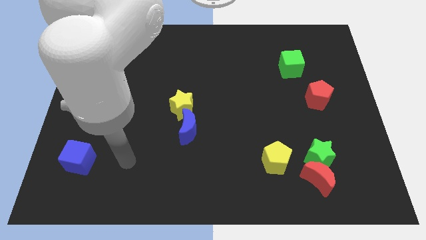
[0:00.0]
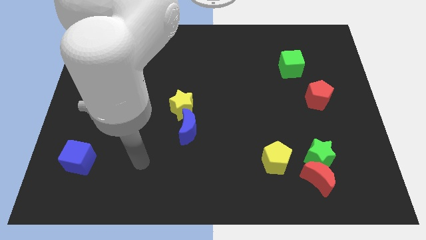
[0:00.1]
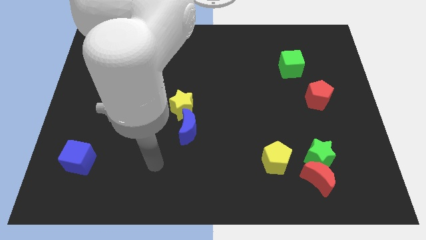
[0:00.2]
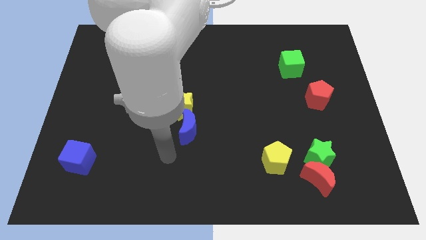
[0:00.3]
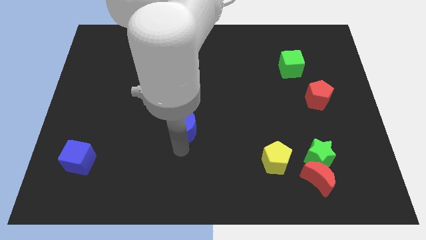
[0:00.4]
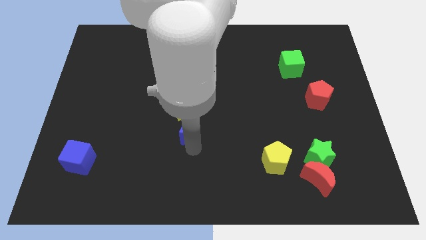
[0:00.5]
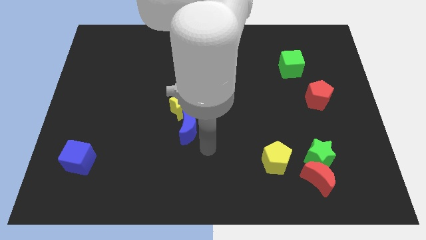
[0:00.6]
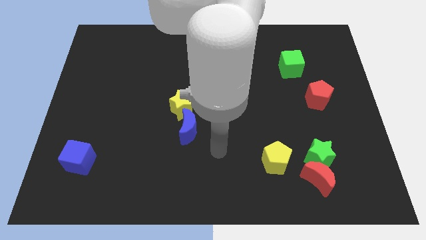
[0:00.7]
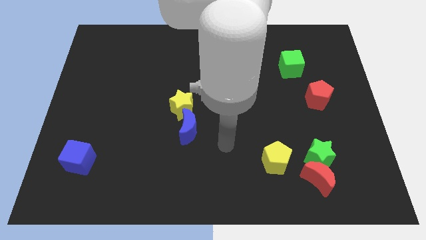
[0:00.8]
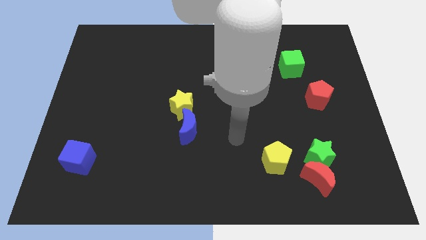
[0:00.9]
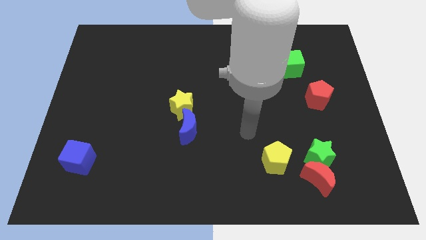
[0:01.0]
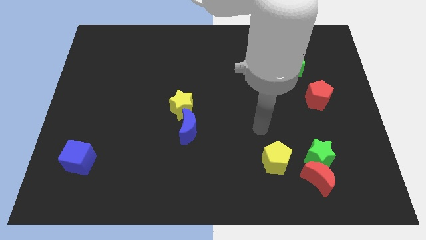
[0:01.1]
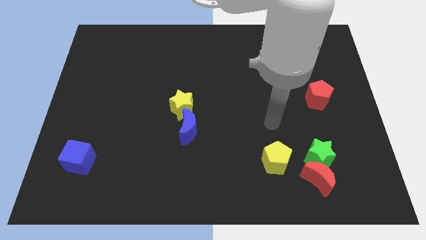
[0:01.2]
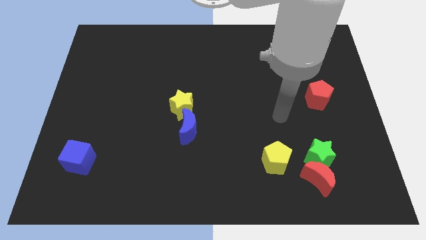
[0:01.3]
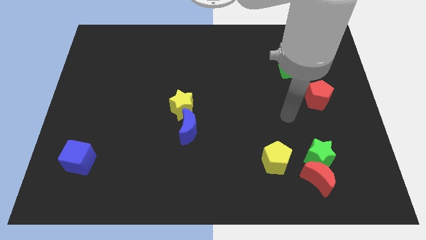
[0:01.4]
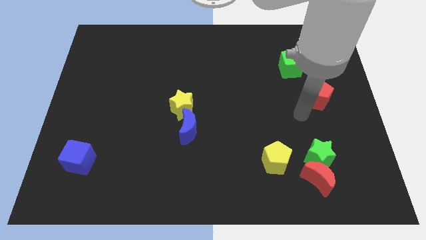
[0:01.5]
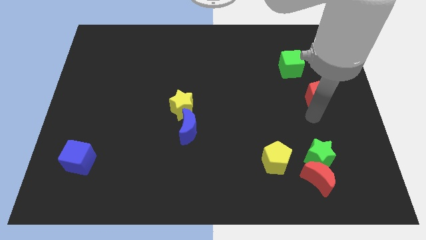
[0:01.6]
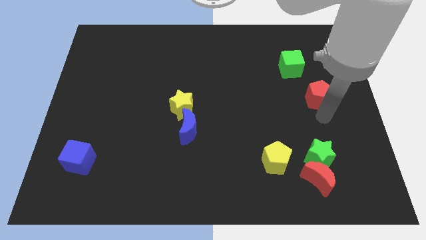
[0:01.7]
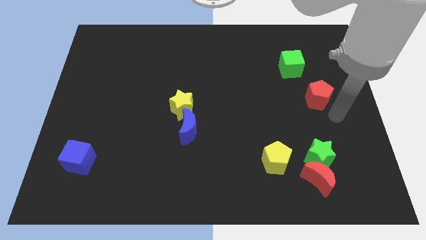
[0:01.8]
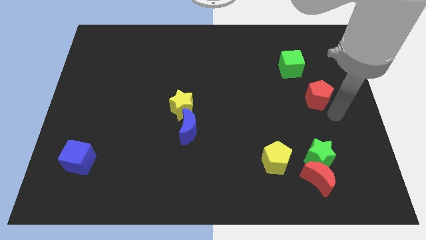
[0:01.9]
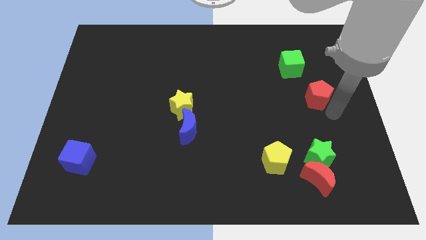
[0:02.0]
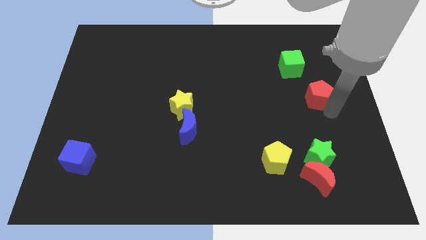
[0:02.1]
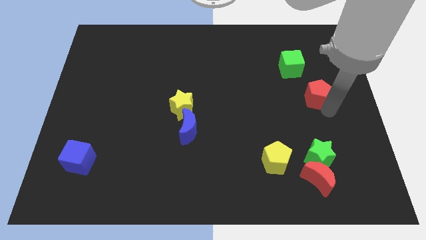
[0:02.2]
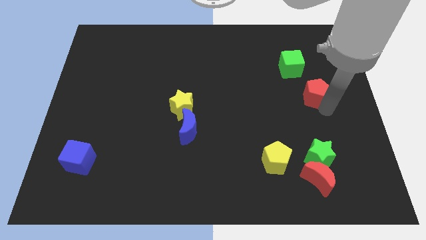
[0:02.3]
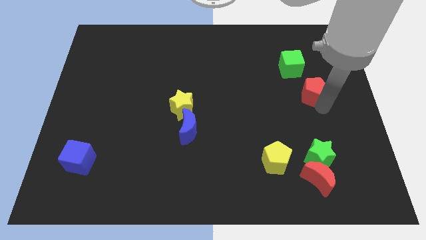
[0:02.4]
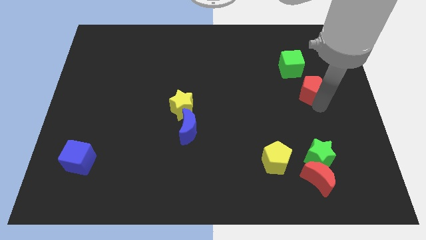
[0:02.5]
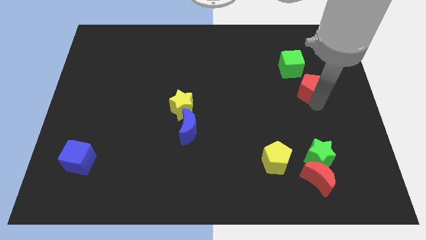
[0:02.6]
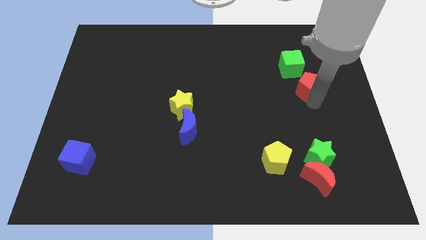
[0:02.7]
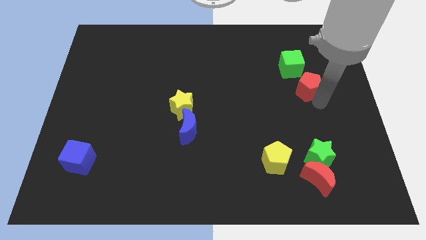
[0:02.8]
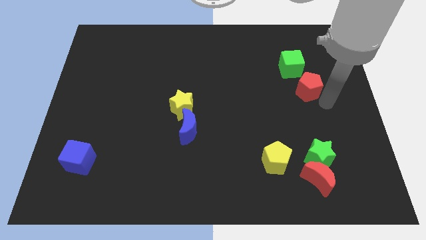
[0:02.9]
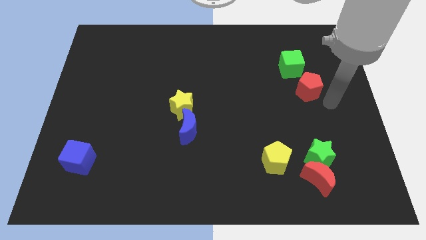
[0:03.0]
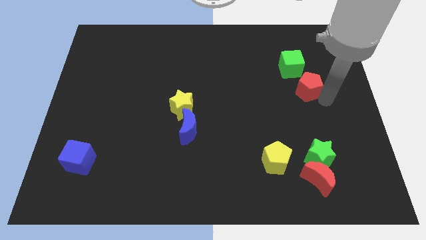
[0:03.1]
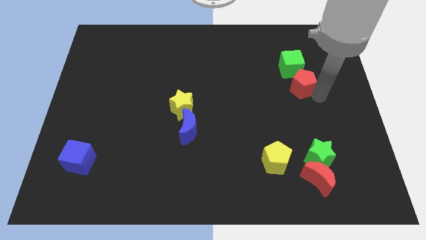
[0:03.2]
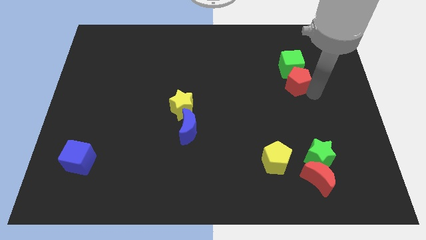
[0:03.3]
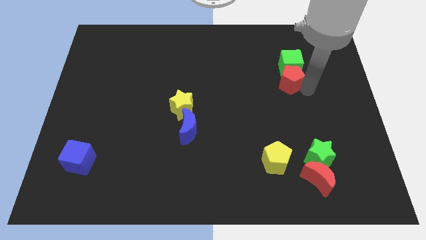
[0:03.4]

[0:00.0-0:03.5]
slide the red pentagon a little diagonally upwards and to the left

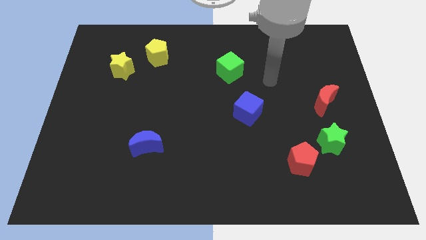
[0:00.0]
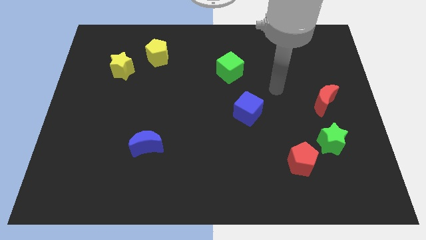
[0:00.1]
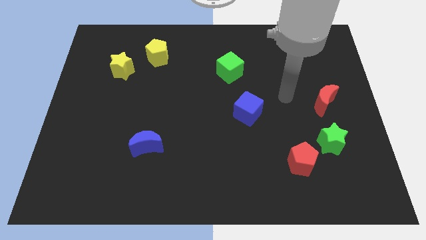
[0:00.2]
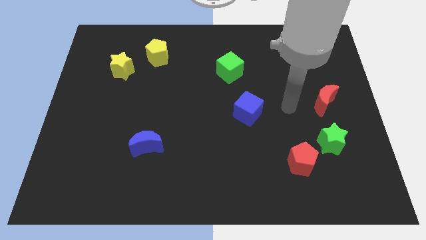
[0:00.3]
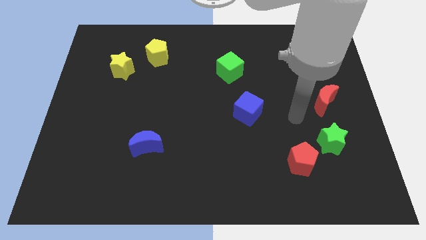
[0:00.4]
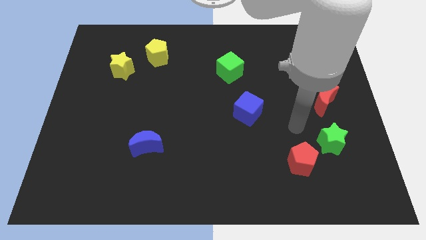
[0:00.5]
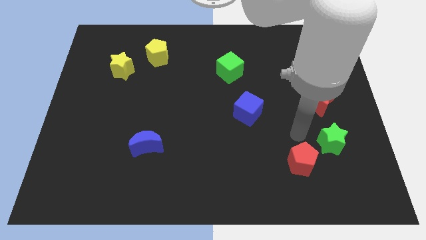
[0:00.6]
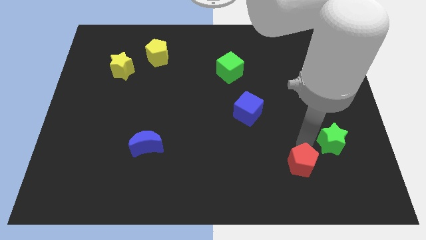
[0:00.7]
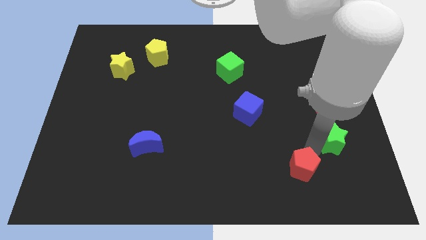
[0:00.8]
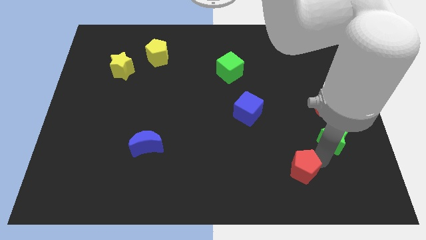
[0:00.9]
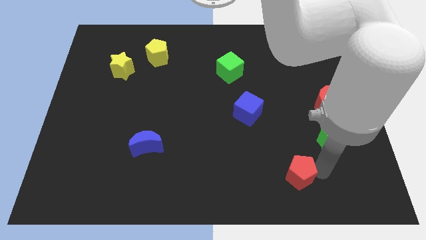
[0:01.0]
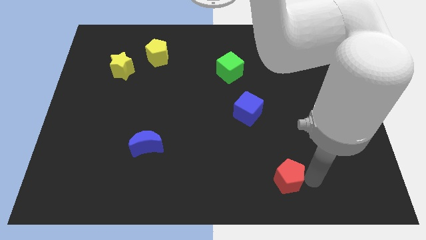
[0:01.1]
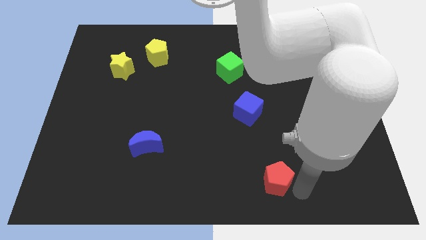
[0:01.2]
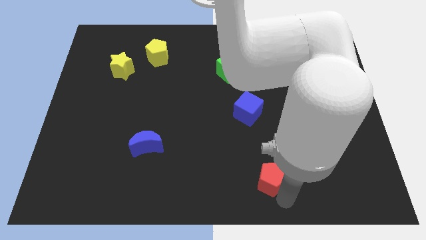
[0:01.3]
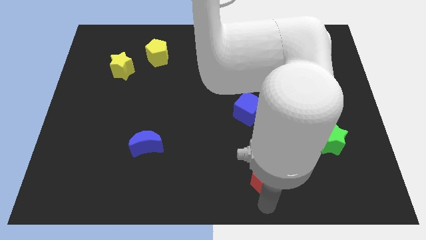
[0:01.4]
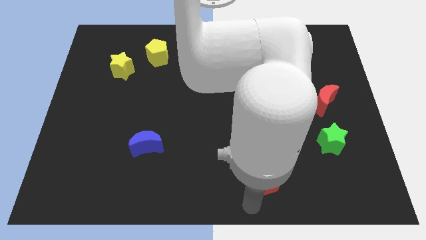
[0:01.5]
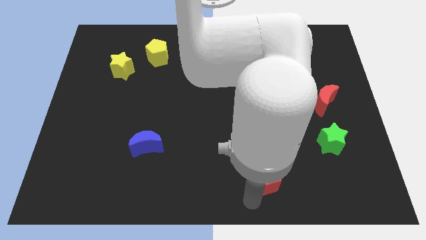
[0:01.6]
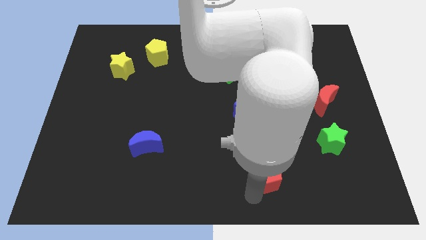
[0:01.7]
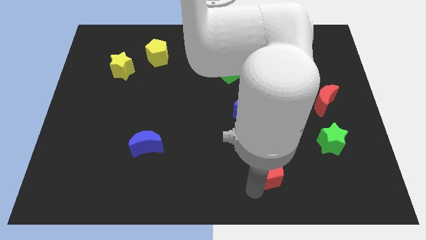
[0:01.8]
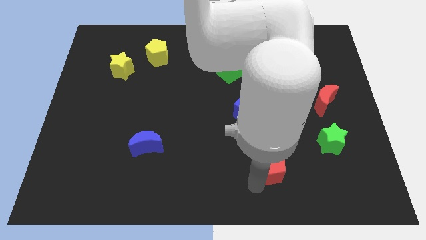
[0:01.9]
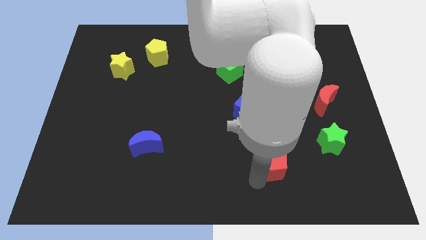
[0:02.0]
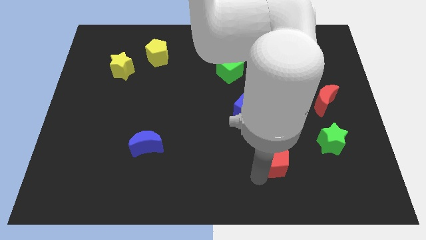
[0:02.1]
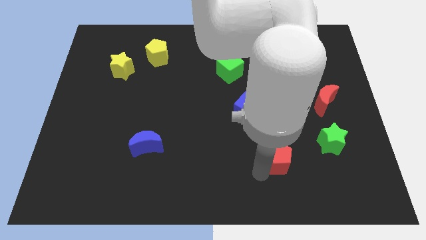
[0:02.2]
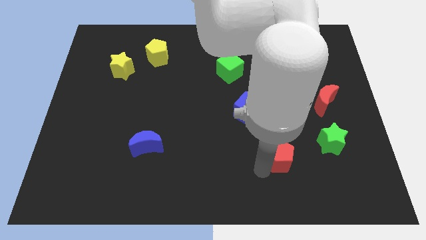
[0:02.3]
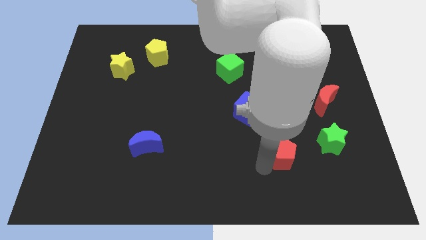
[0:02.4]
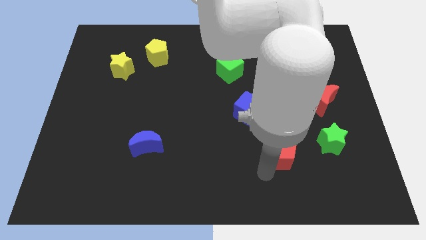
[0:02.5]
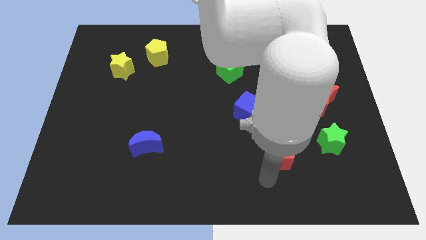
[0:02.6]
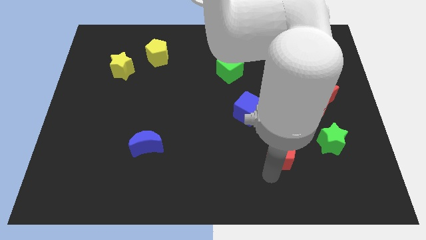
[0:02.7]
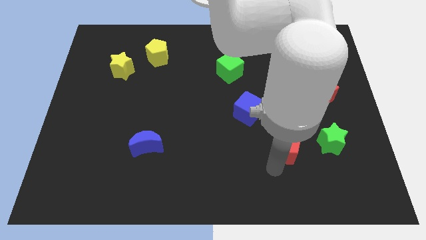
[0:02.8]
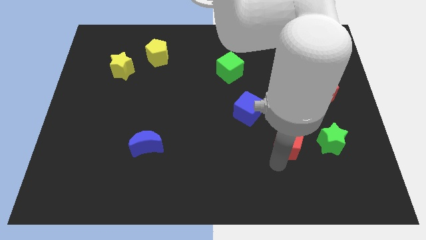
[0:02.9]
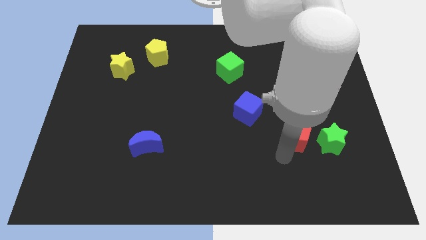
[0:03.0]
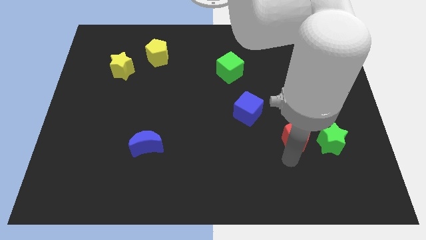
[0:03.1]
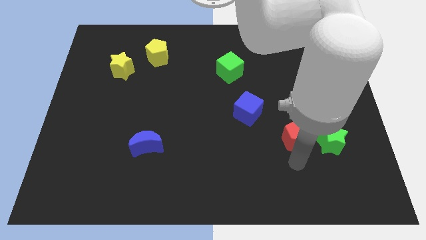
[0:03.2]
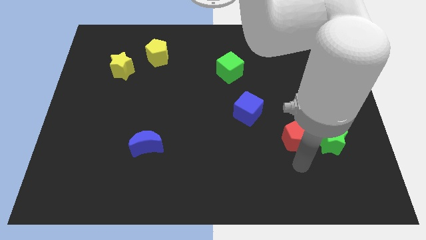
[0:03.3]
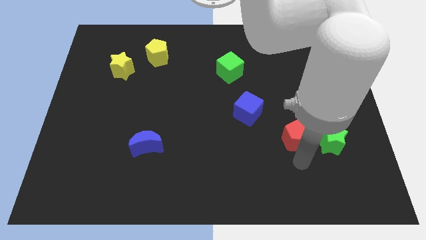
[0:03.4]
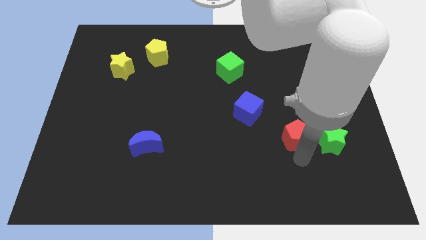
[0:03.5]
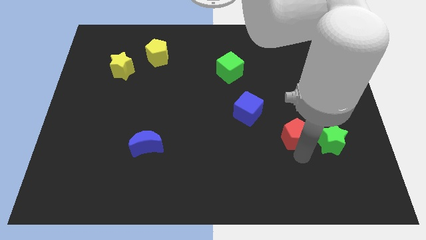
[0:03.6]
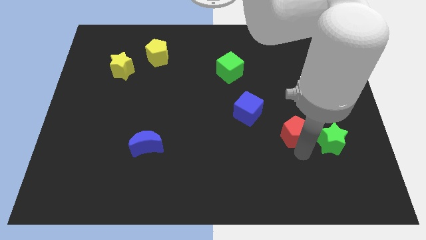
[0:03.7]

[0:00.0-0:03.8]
push the red pentagon upwards a bit

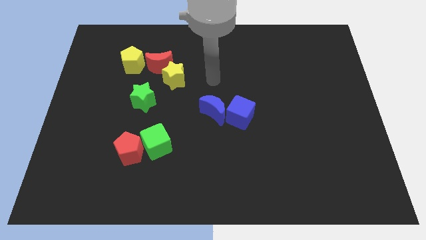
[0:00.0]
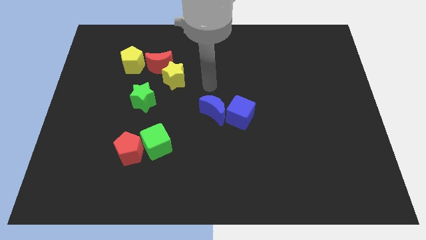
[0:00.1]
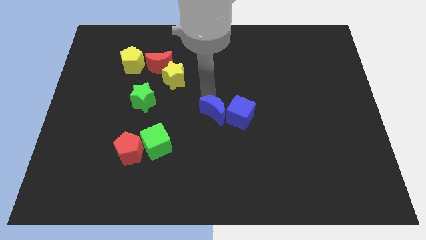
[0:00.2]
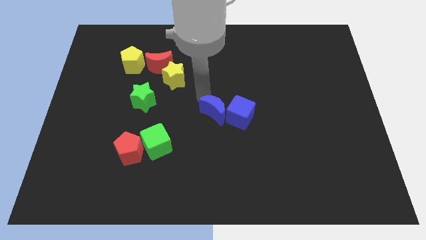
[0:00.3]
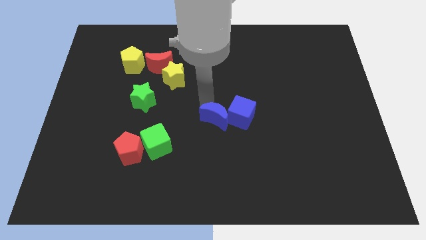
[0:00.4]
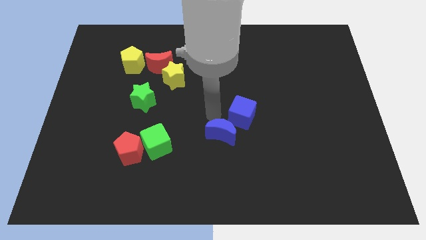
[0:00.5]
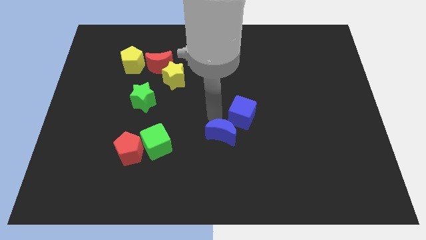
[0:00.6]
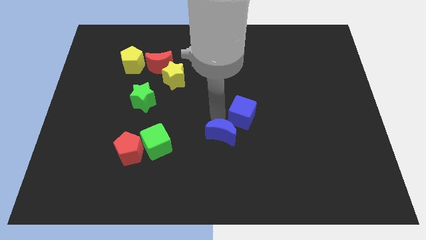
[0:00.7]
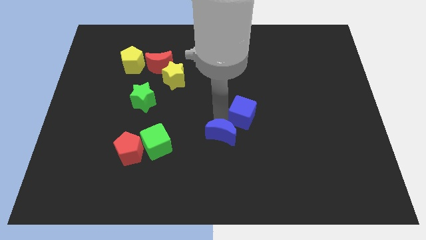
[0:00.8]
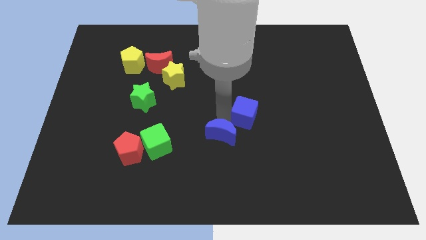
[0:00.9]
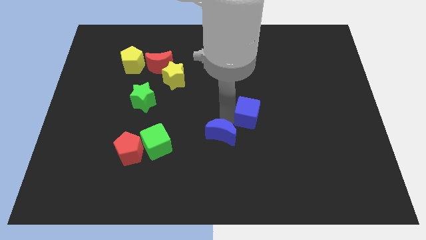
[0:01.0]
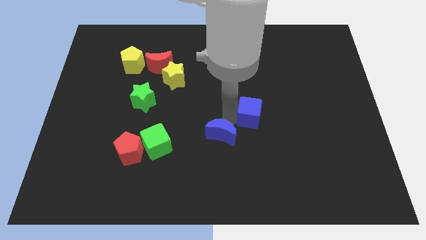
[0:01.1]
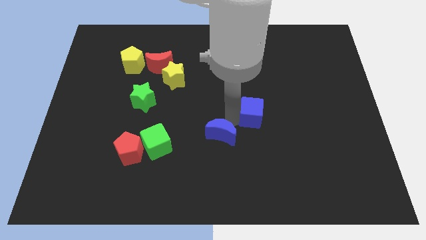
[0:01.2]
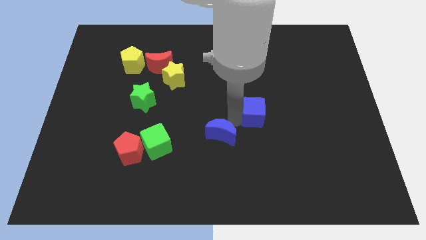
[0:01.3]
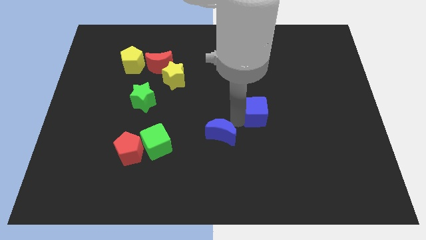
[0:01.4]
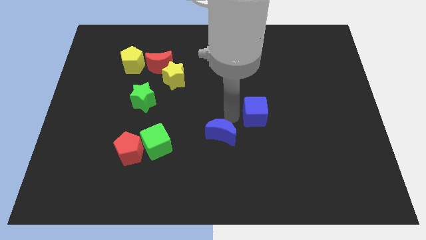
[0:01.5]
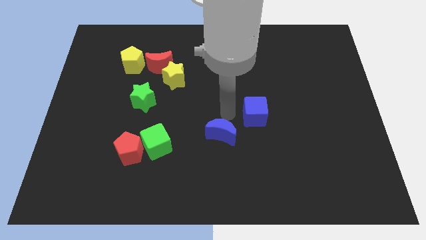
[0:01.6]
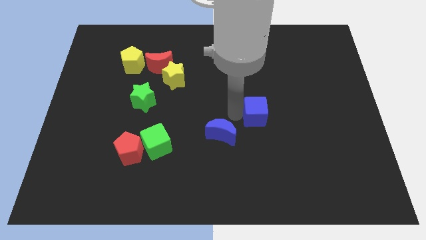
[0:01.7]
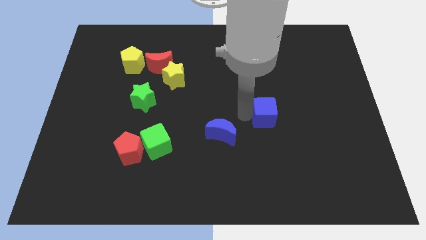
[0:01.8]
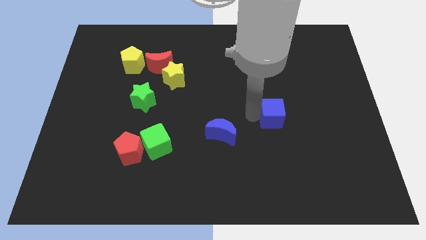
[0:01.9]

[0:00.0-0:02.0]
slightly move the blue cube right
